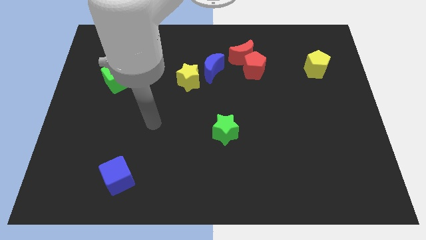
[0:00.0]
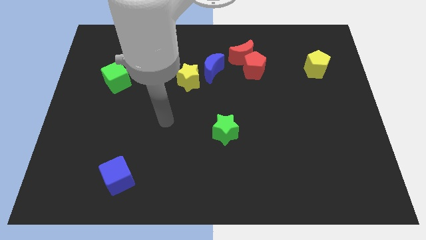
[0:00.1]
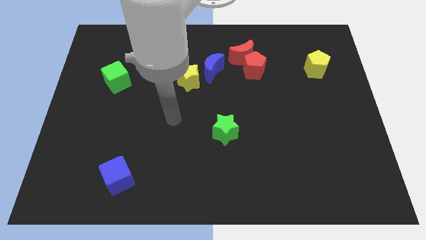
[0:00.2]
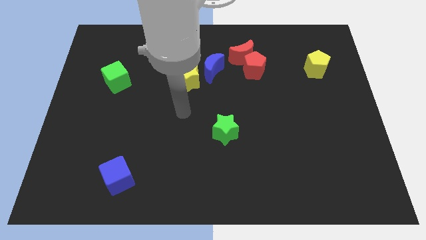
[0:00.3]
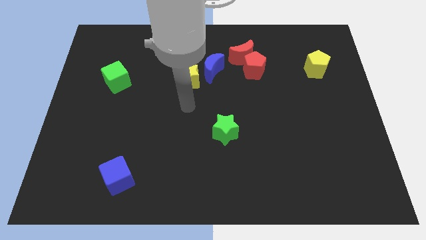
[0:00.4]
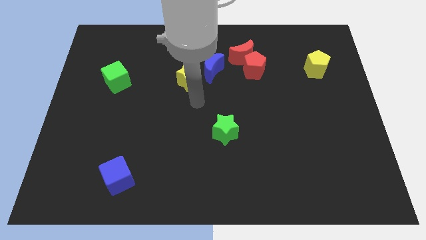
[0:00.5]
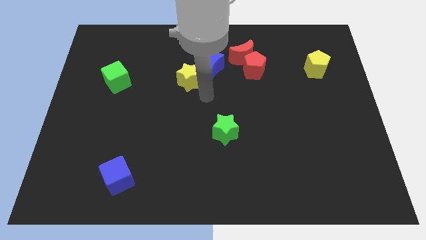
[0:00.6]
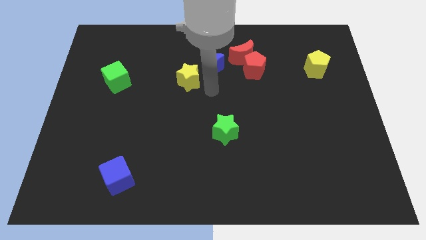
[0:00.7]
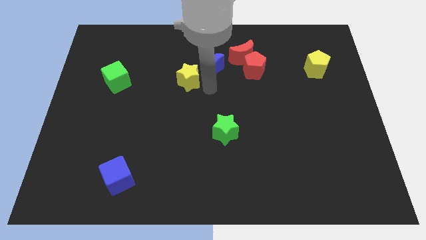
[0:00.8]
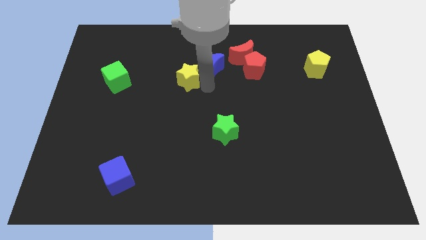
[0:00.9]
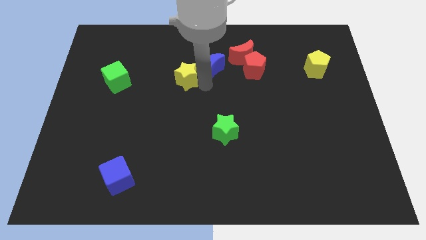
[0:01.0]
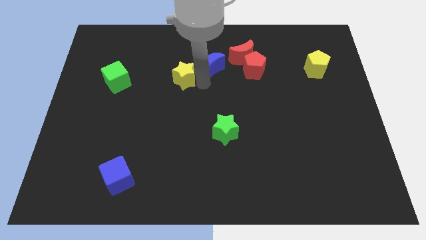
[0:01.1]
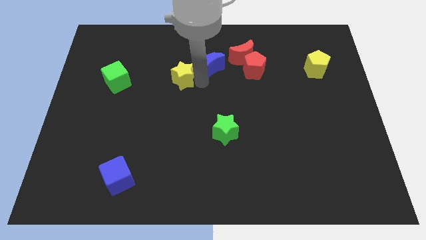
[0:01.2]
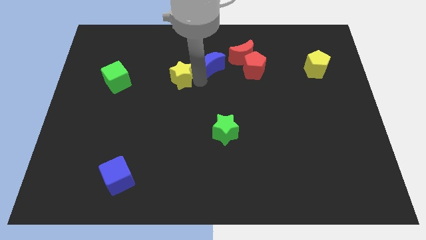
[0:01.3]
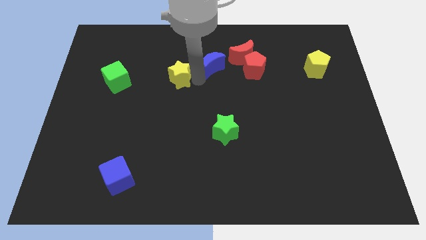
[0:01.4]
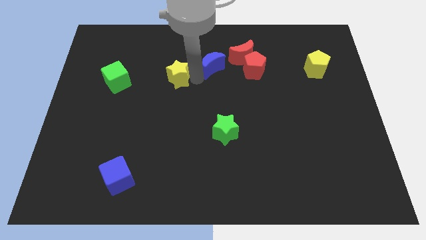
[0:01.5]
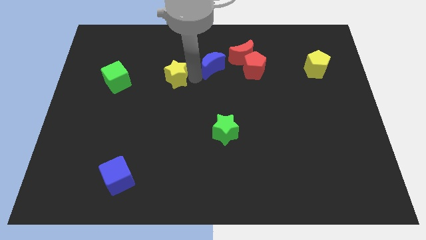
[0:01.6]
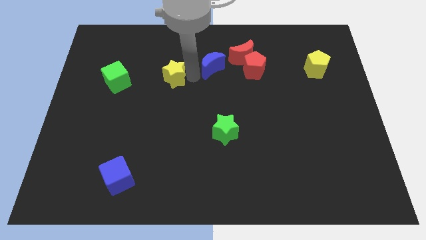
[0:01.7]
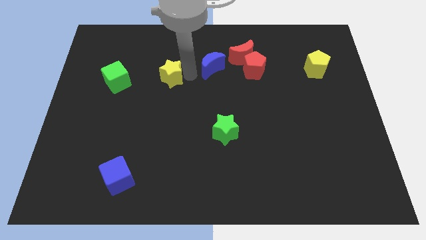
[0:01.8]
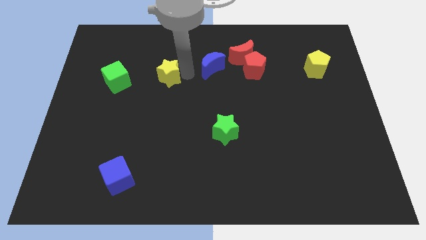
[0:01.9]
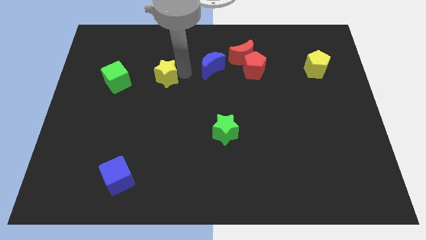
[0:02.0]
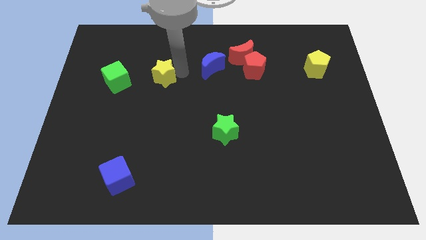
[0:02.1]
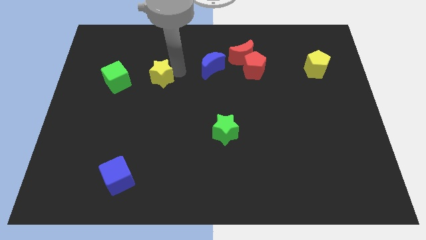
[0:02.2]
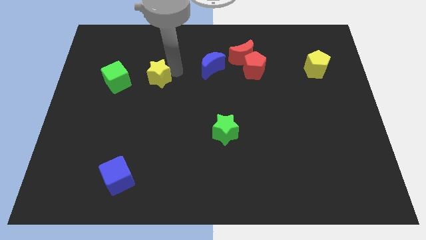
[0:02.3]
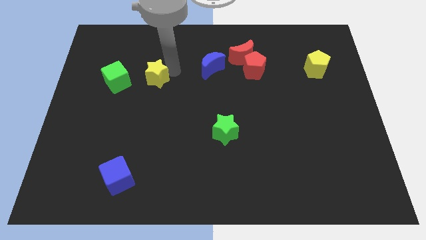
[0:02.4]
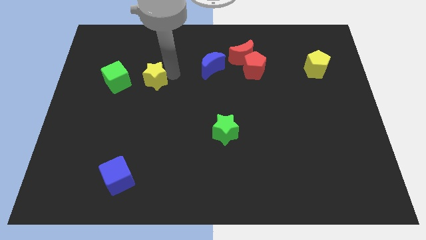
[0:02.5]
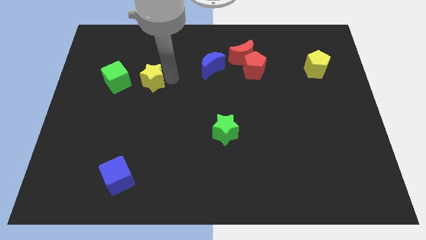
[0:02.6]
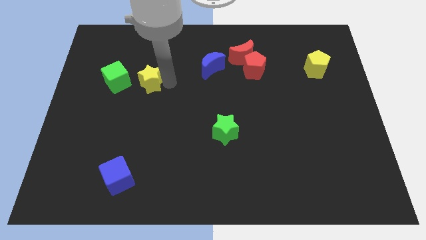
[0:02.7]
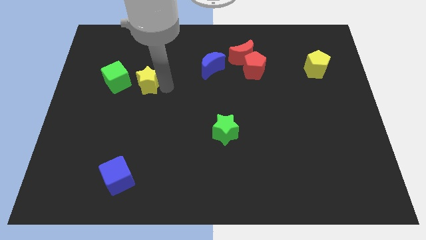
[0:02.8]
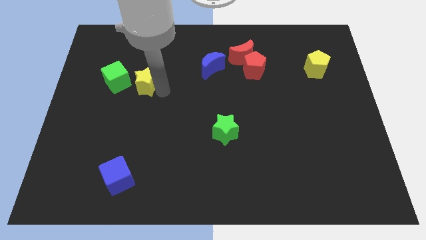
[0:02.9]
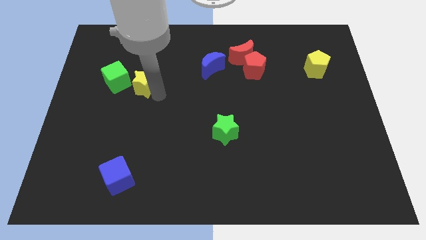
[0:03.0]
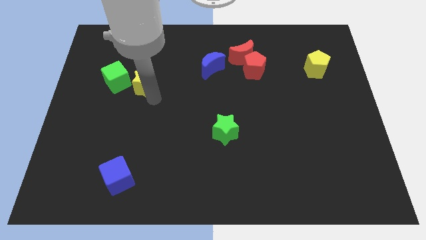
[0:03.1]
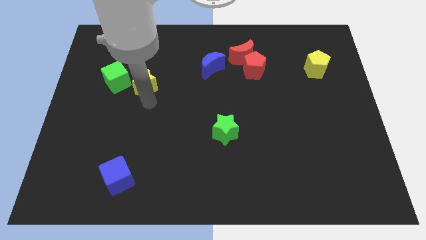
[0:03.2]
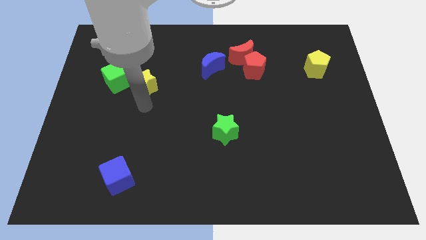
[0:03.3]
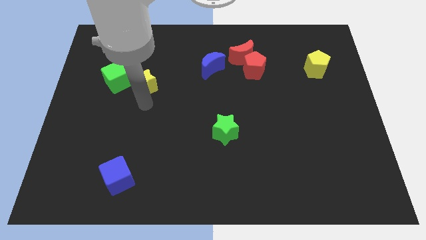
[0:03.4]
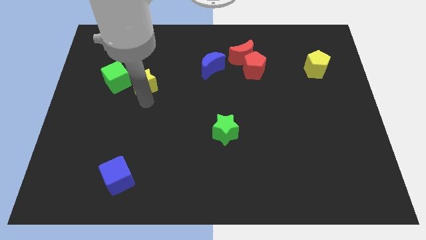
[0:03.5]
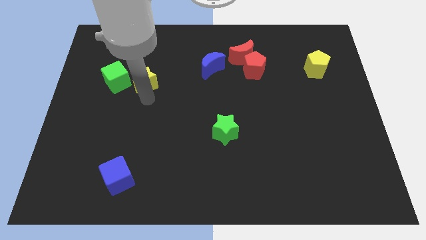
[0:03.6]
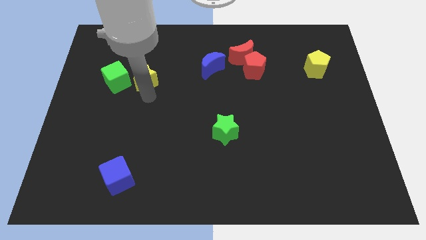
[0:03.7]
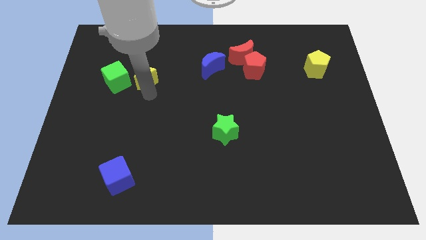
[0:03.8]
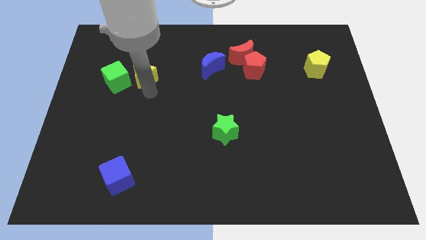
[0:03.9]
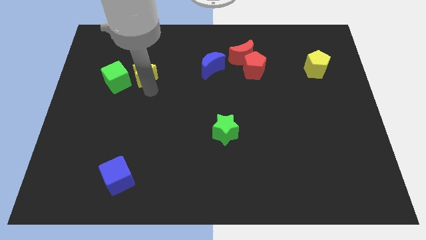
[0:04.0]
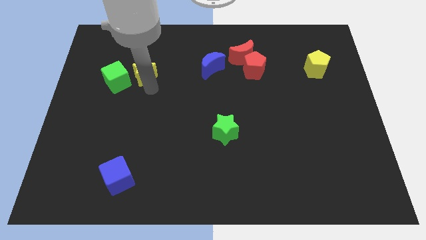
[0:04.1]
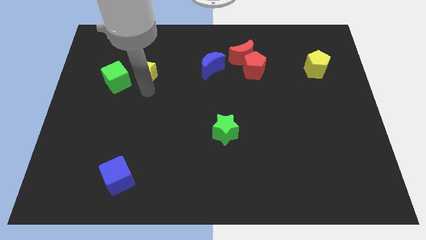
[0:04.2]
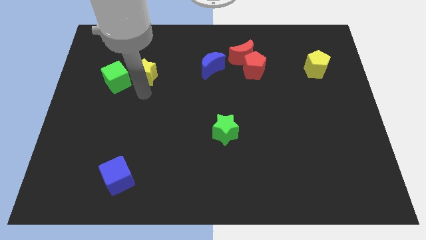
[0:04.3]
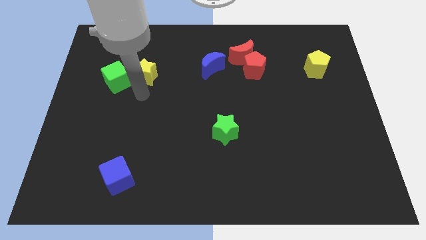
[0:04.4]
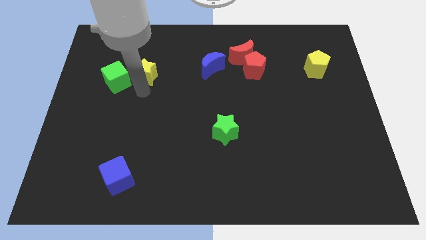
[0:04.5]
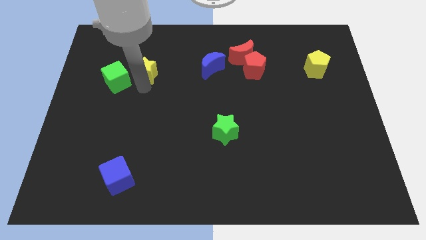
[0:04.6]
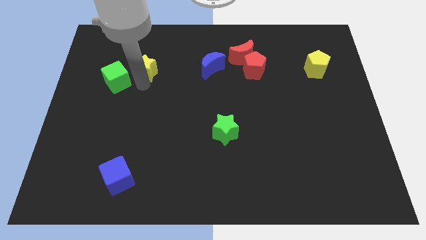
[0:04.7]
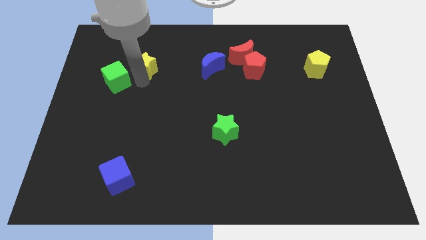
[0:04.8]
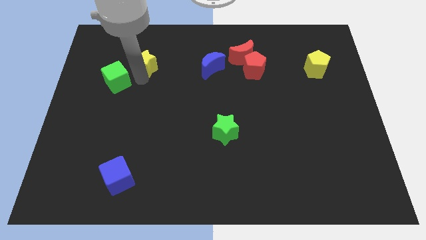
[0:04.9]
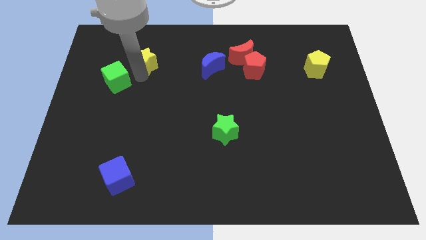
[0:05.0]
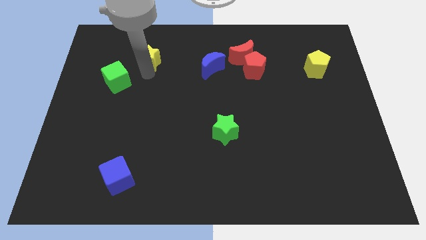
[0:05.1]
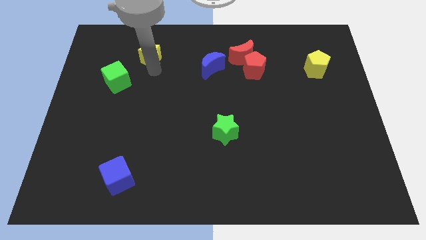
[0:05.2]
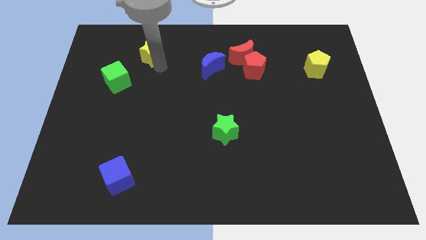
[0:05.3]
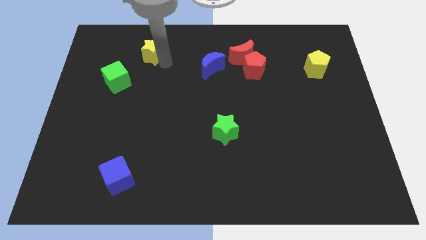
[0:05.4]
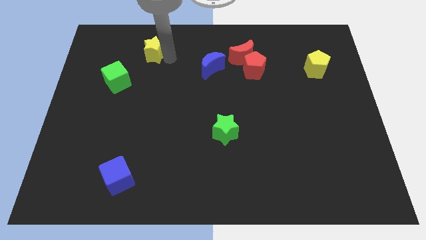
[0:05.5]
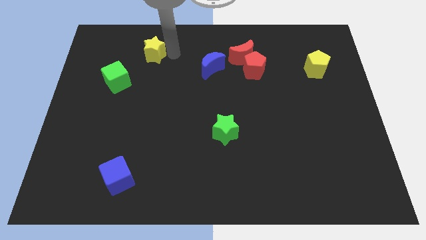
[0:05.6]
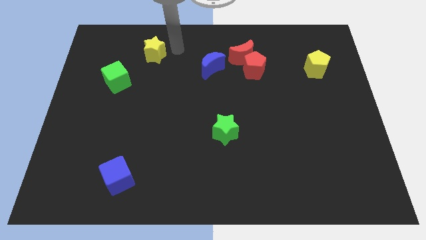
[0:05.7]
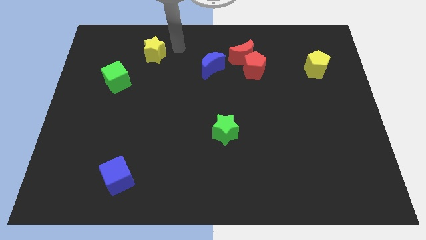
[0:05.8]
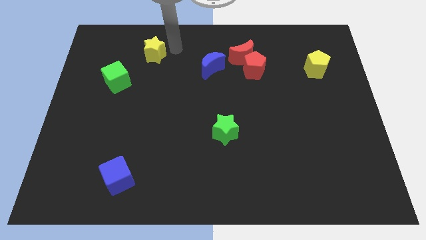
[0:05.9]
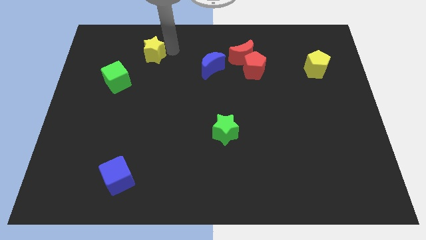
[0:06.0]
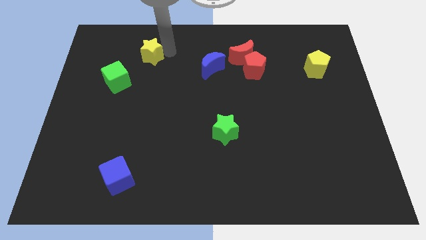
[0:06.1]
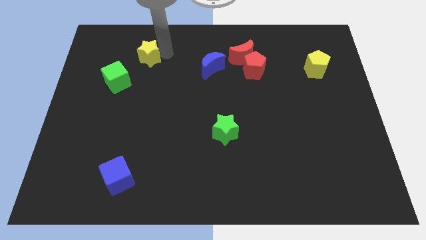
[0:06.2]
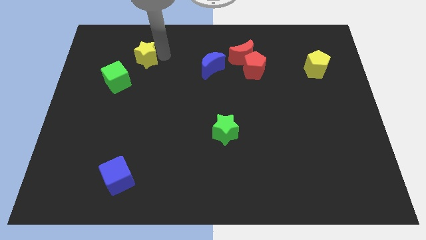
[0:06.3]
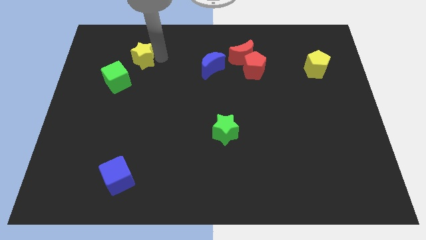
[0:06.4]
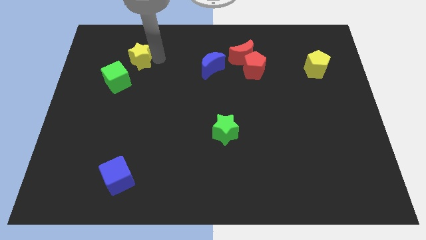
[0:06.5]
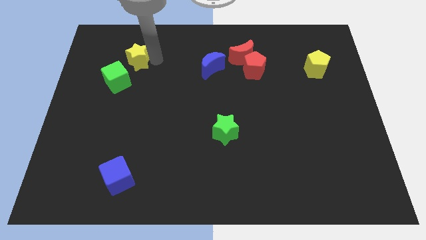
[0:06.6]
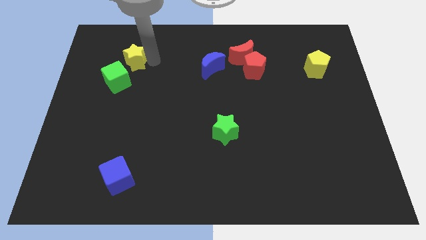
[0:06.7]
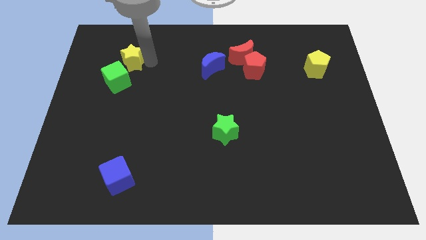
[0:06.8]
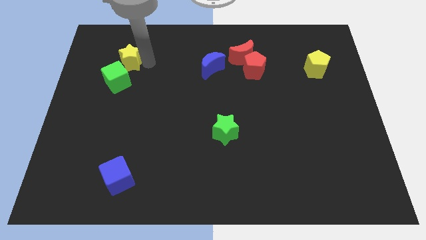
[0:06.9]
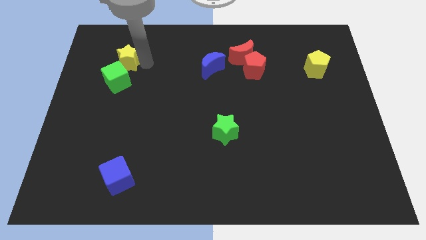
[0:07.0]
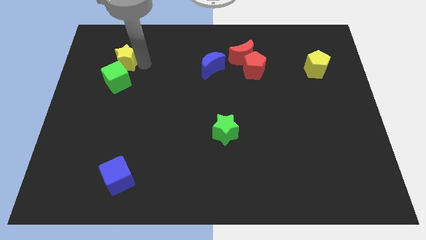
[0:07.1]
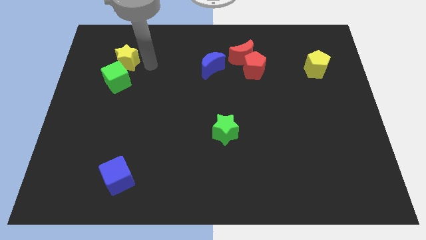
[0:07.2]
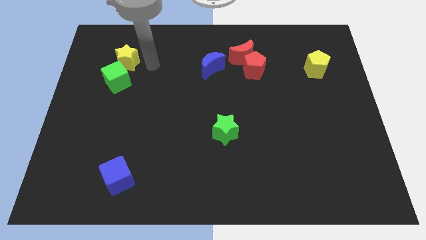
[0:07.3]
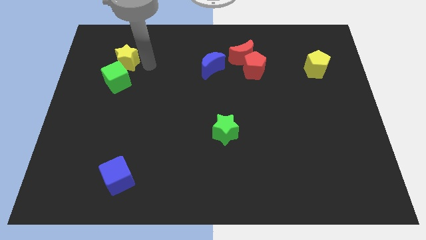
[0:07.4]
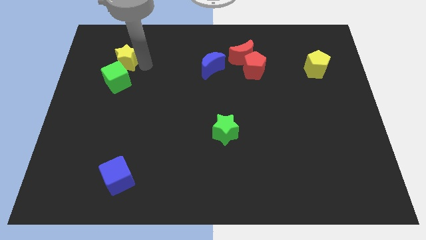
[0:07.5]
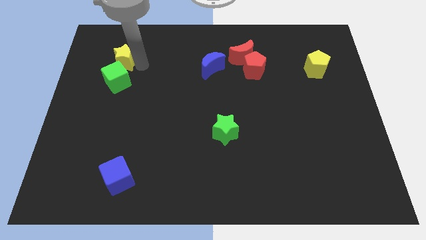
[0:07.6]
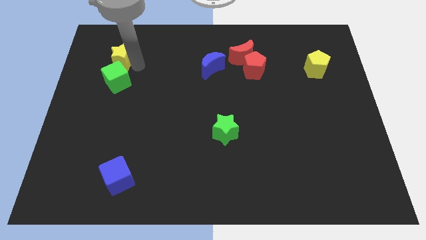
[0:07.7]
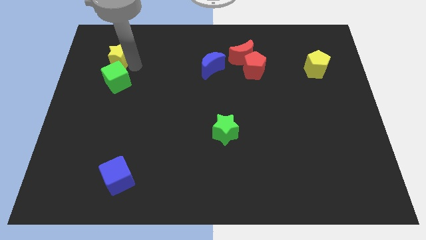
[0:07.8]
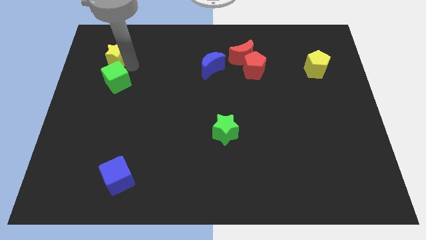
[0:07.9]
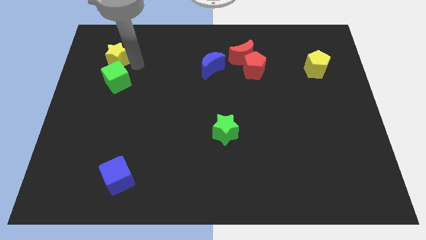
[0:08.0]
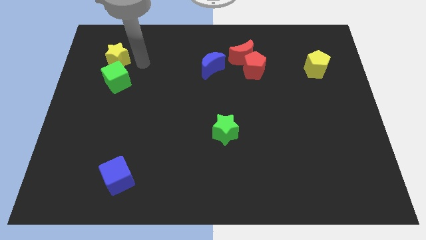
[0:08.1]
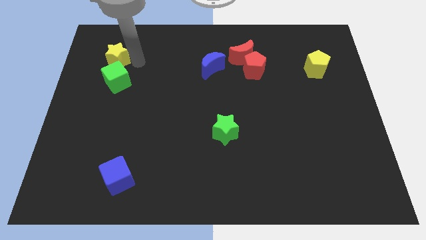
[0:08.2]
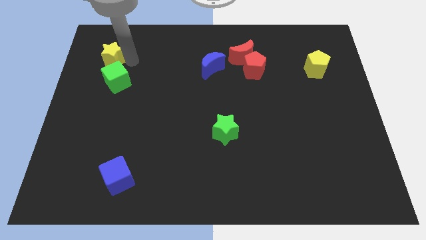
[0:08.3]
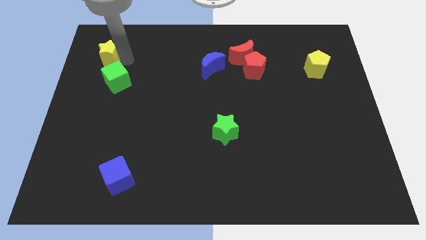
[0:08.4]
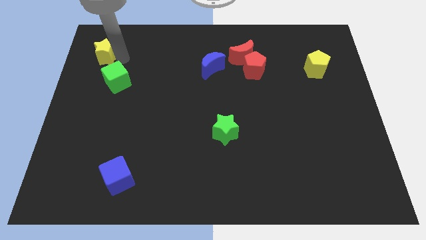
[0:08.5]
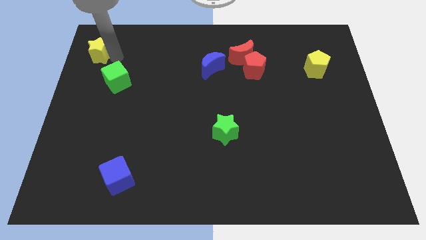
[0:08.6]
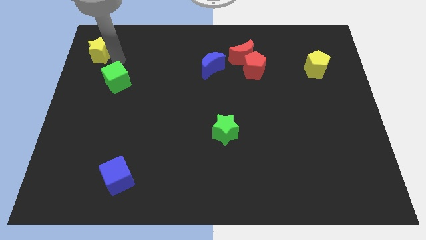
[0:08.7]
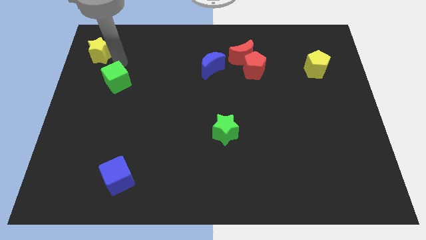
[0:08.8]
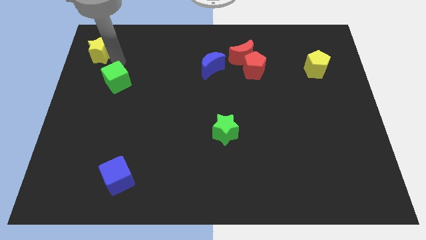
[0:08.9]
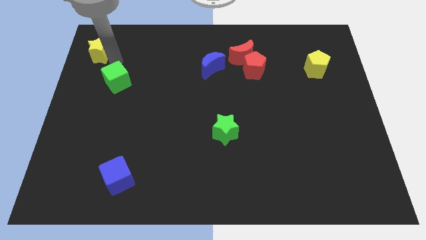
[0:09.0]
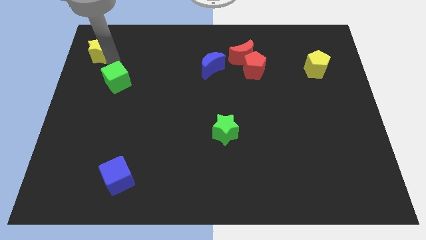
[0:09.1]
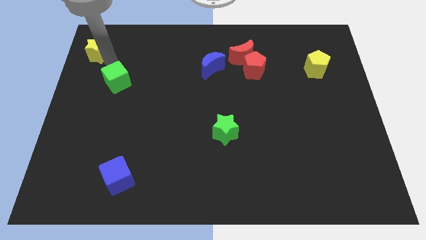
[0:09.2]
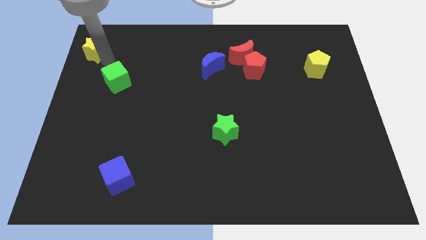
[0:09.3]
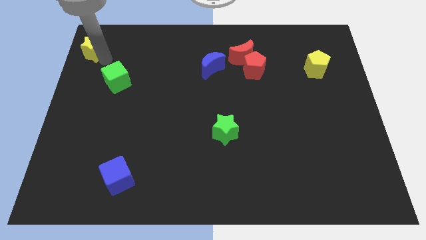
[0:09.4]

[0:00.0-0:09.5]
move the yellow star to the top left corner
